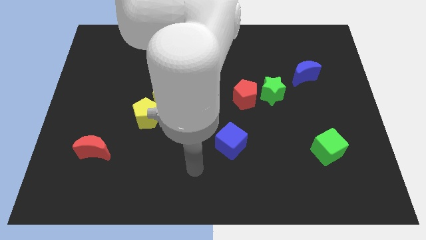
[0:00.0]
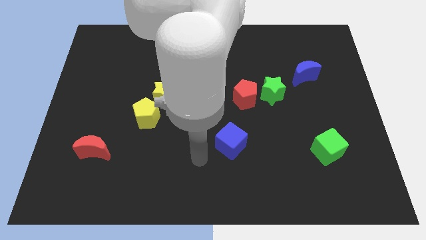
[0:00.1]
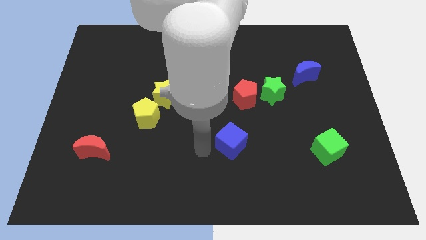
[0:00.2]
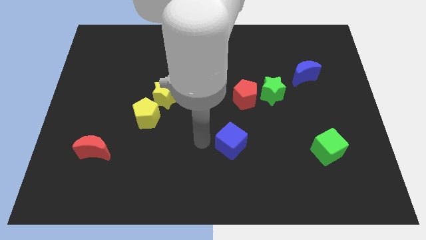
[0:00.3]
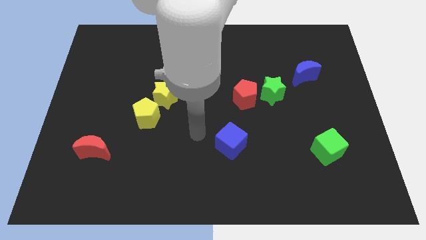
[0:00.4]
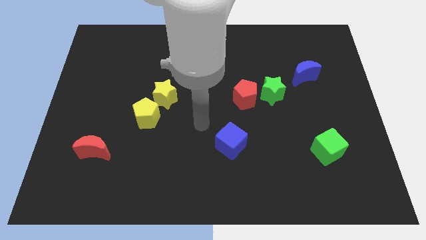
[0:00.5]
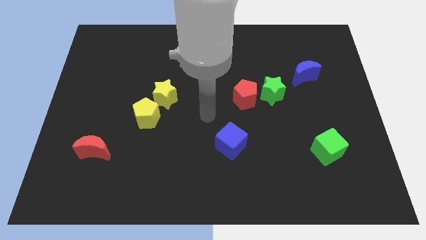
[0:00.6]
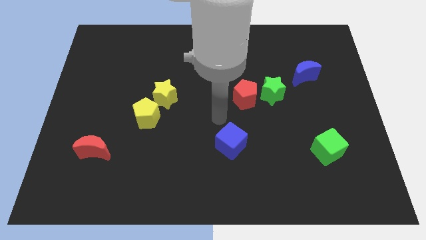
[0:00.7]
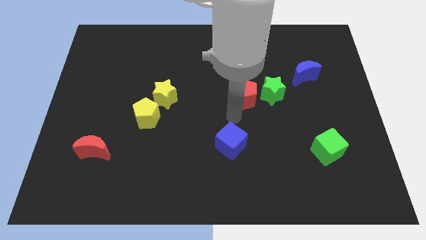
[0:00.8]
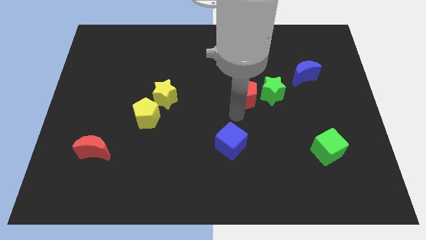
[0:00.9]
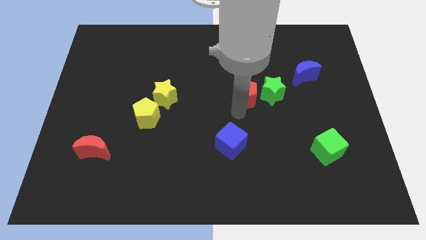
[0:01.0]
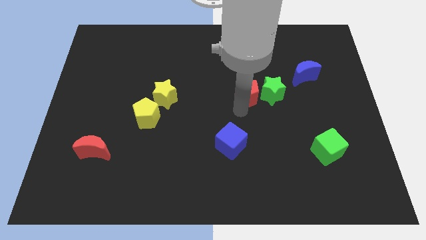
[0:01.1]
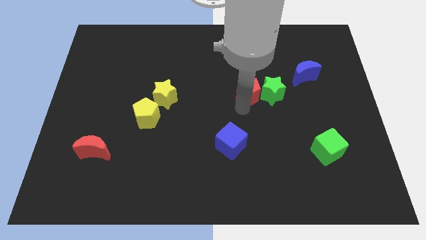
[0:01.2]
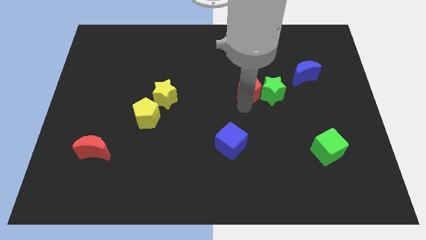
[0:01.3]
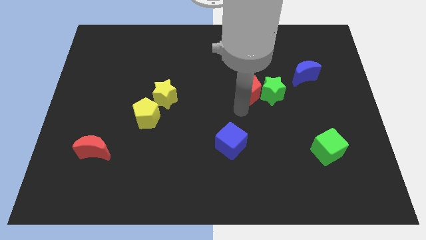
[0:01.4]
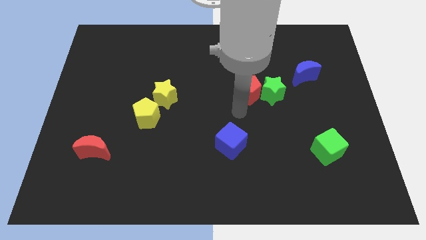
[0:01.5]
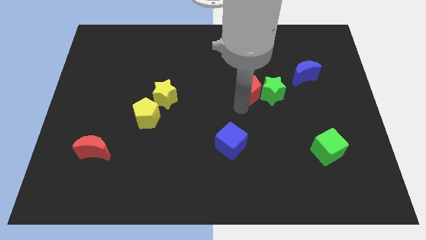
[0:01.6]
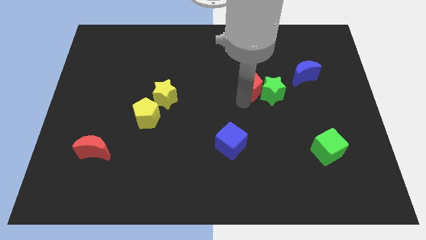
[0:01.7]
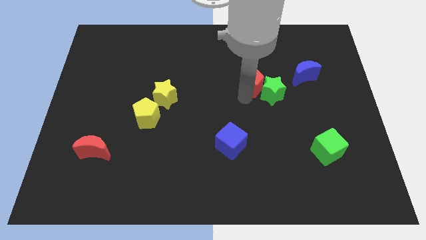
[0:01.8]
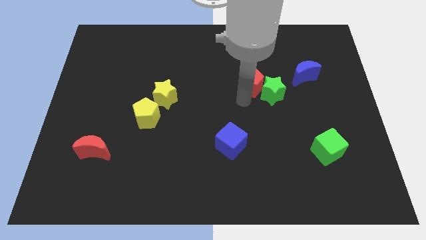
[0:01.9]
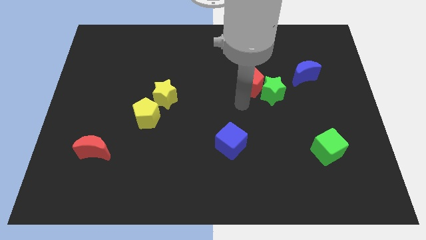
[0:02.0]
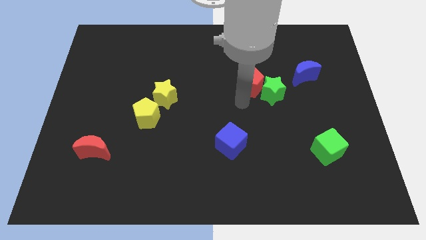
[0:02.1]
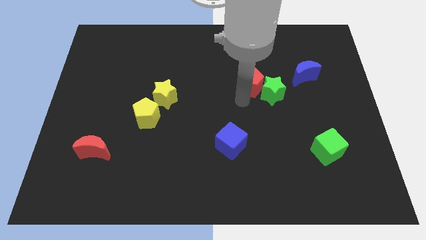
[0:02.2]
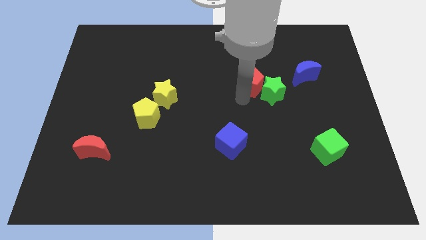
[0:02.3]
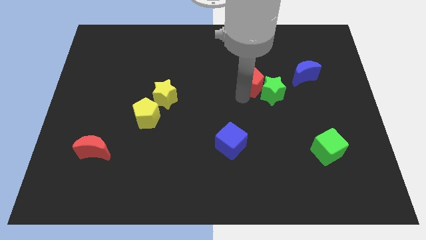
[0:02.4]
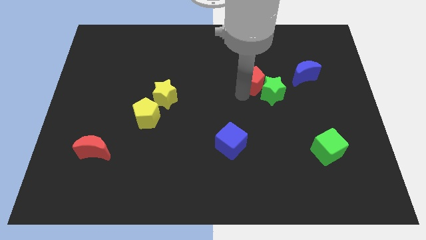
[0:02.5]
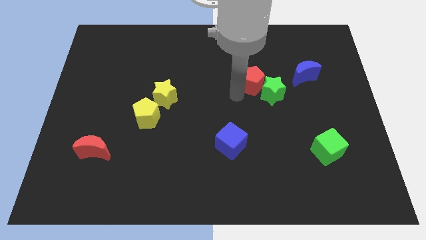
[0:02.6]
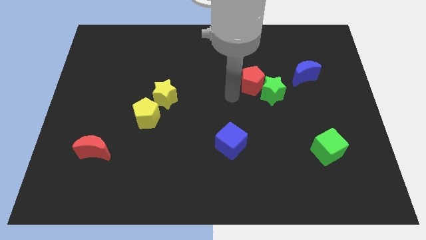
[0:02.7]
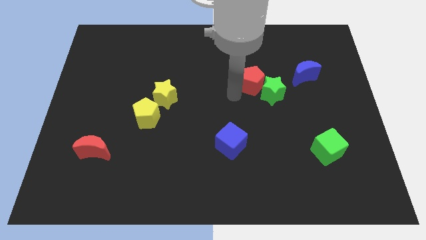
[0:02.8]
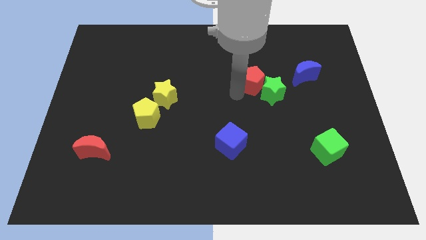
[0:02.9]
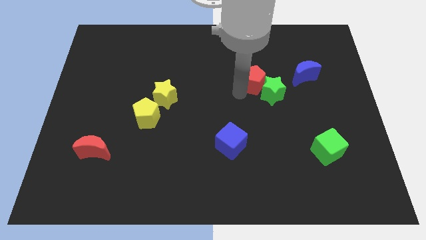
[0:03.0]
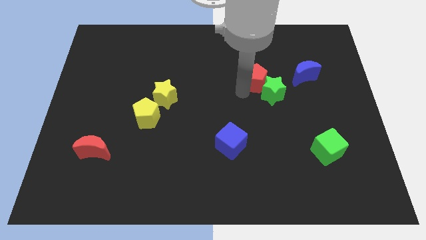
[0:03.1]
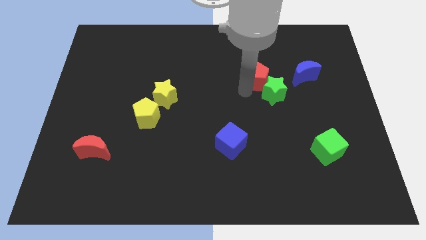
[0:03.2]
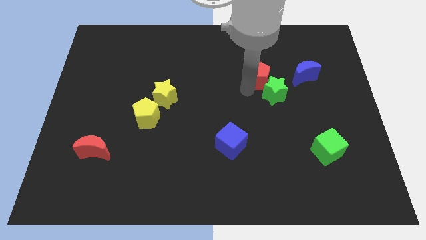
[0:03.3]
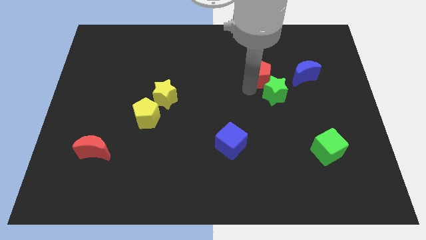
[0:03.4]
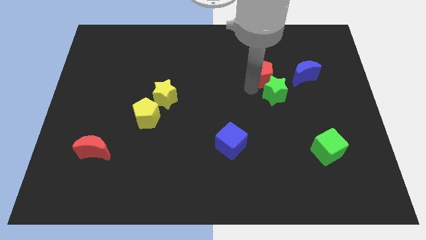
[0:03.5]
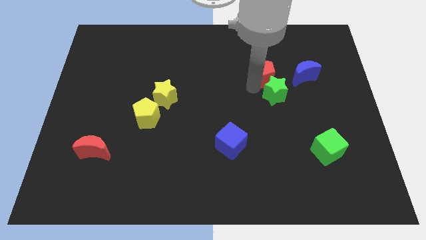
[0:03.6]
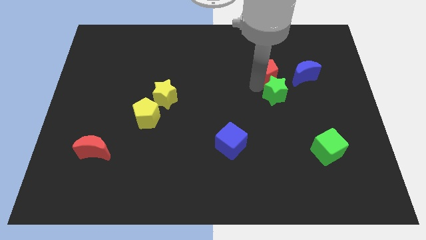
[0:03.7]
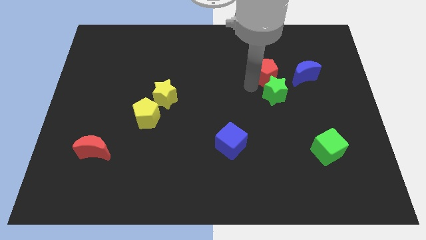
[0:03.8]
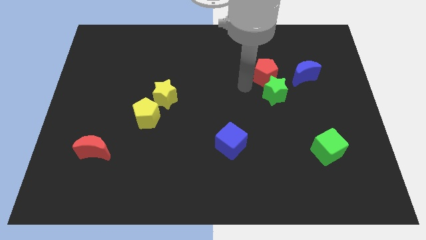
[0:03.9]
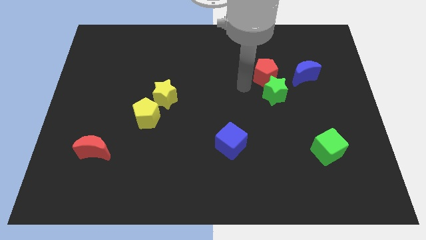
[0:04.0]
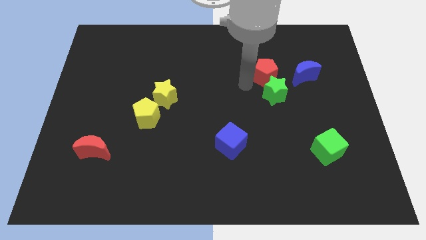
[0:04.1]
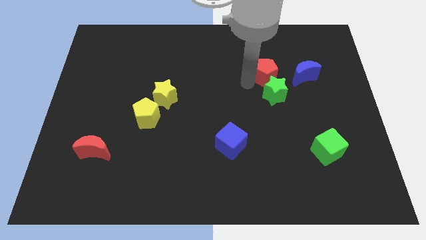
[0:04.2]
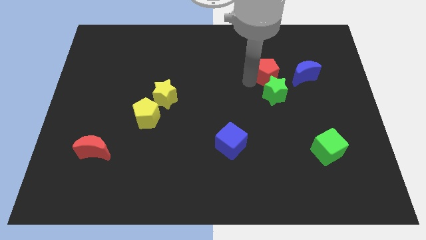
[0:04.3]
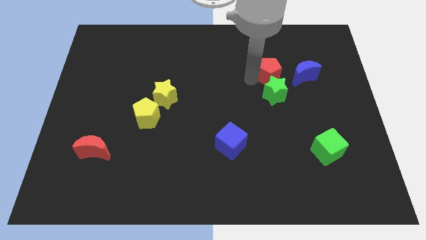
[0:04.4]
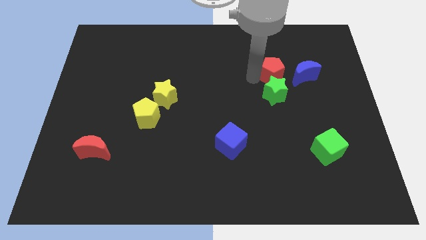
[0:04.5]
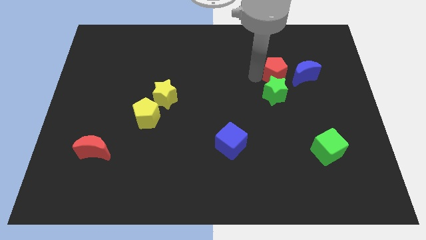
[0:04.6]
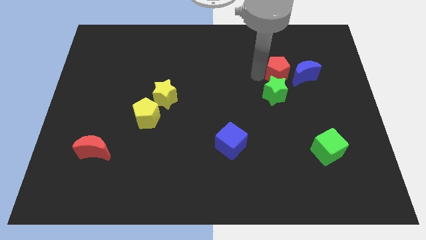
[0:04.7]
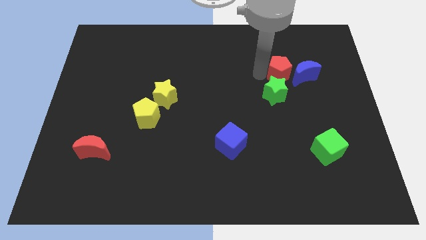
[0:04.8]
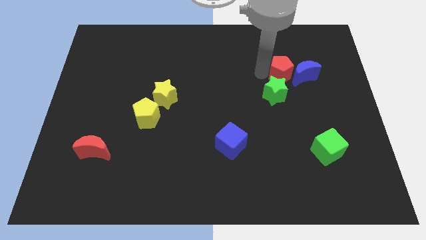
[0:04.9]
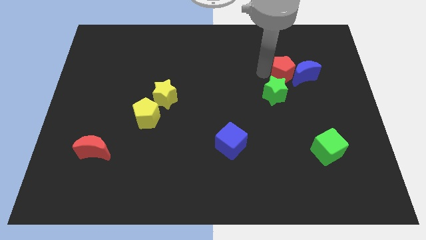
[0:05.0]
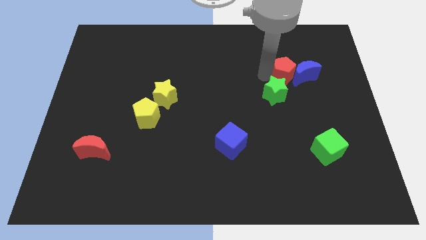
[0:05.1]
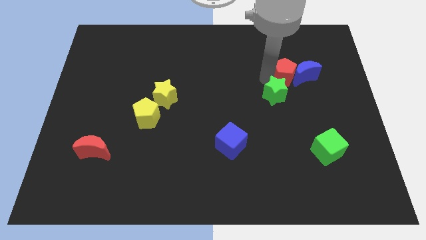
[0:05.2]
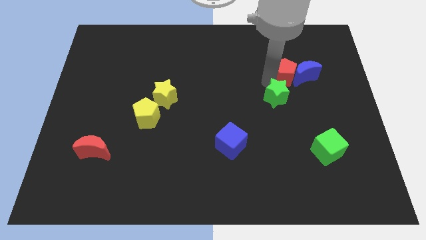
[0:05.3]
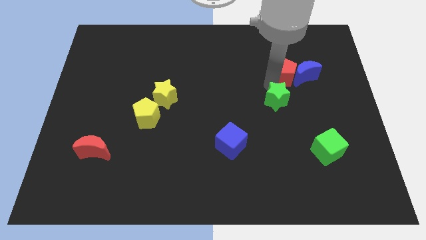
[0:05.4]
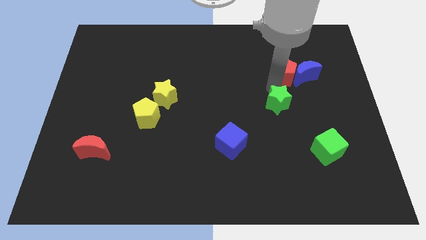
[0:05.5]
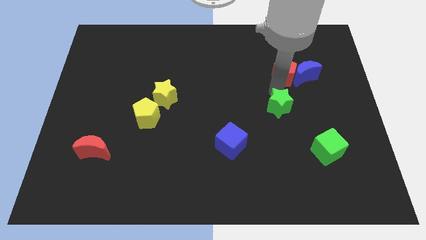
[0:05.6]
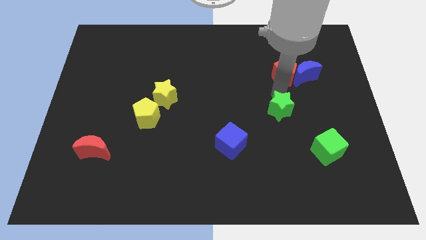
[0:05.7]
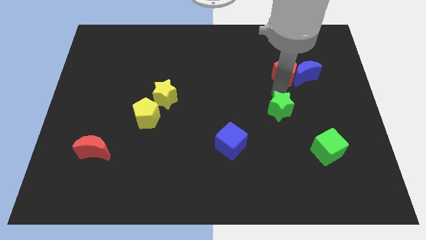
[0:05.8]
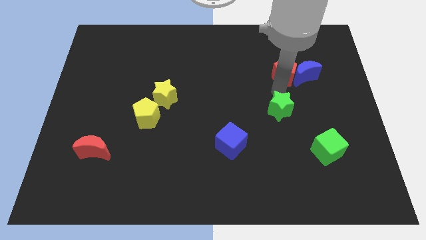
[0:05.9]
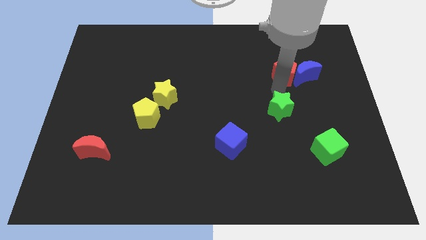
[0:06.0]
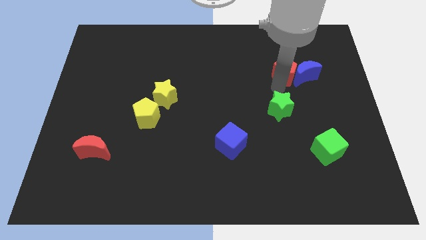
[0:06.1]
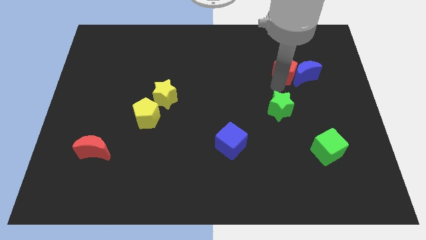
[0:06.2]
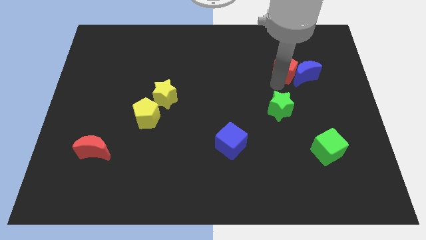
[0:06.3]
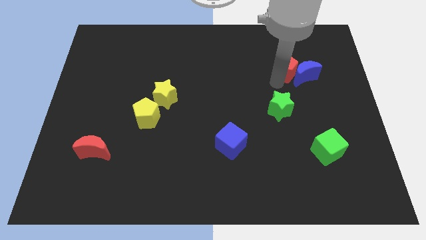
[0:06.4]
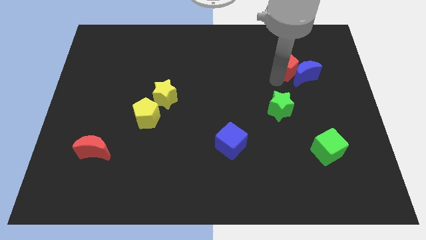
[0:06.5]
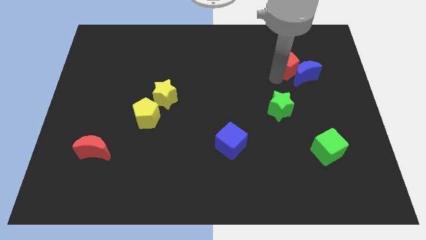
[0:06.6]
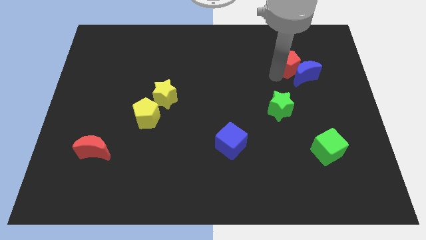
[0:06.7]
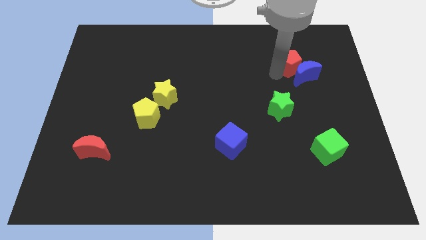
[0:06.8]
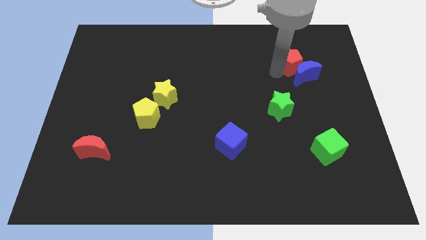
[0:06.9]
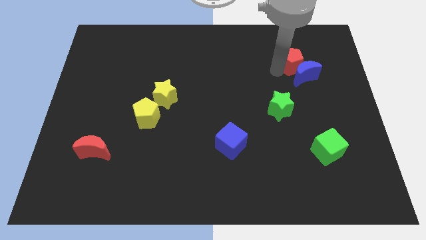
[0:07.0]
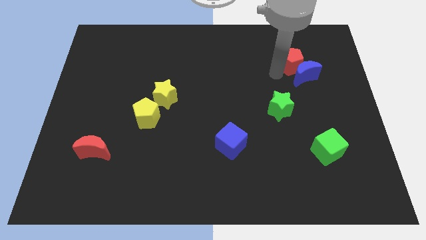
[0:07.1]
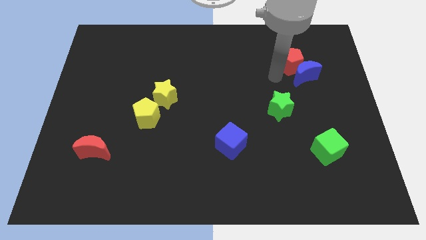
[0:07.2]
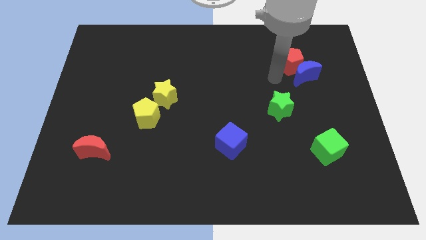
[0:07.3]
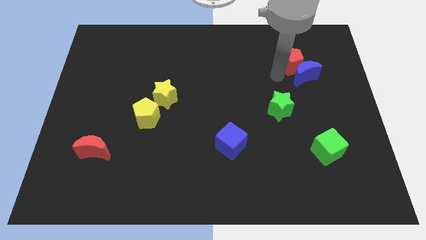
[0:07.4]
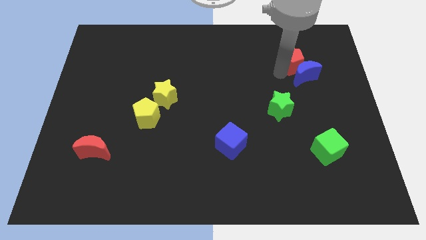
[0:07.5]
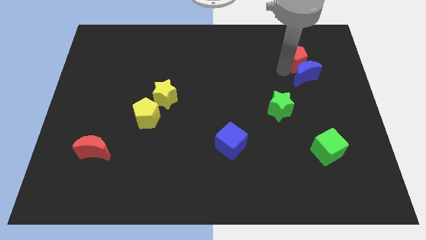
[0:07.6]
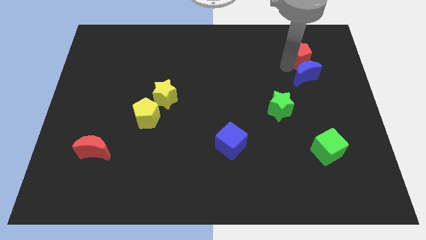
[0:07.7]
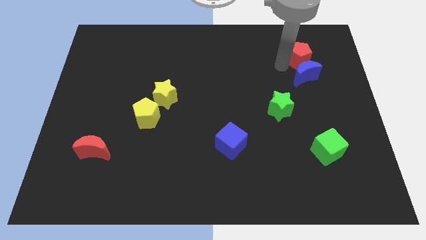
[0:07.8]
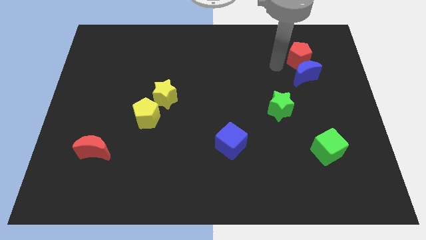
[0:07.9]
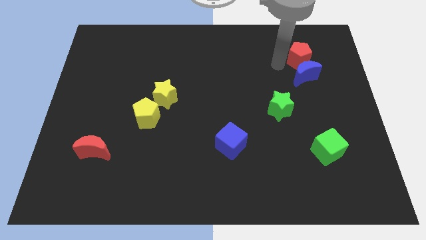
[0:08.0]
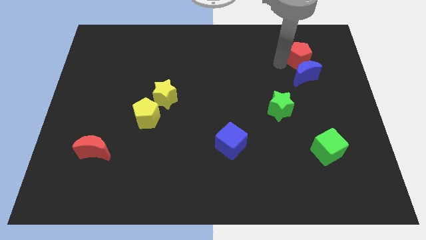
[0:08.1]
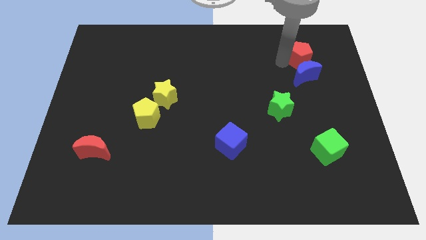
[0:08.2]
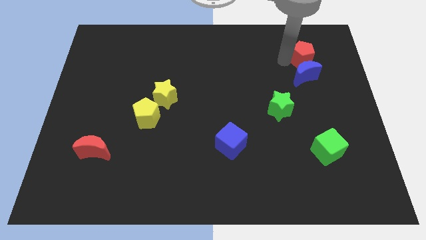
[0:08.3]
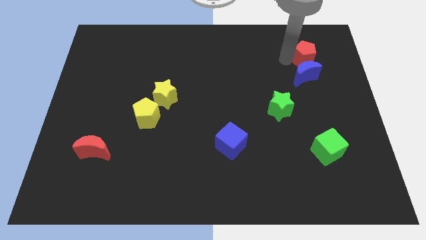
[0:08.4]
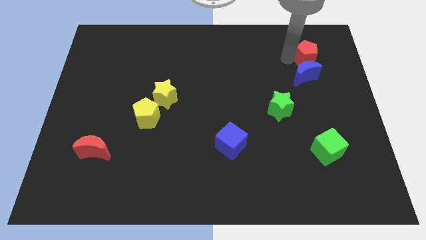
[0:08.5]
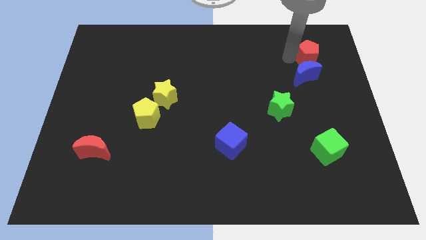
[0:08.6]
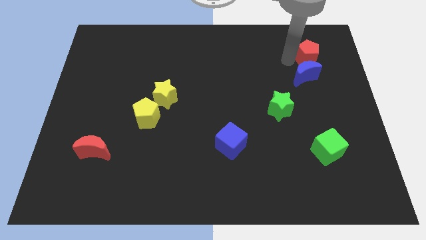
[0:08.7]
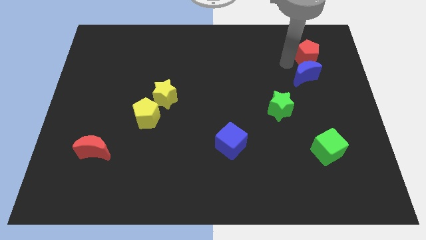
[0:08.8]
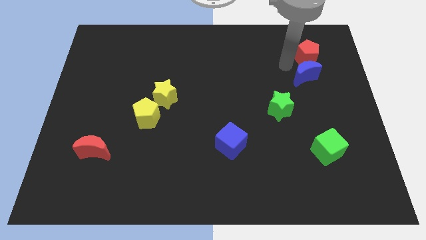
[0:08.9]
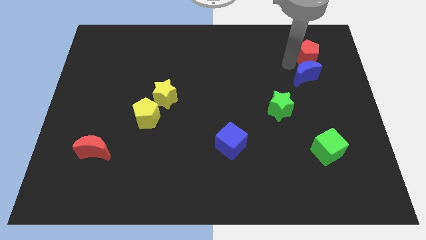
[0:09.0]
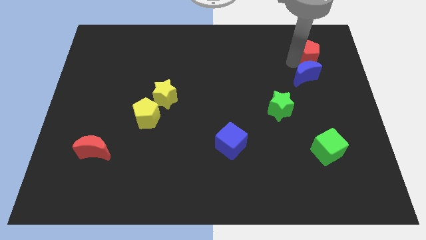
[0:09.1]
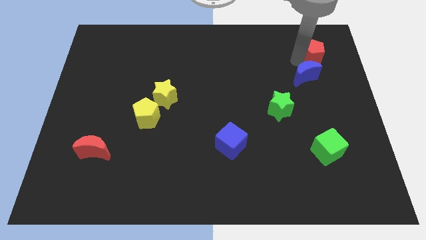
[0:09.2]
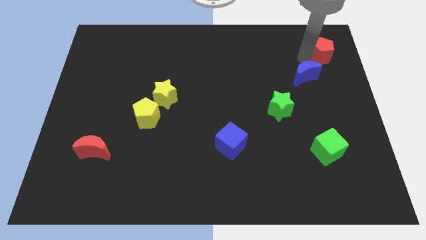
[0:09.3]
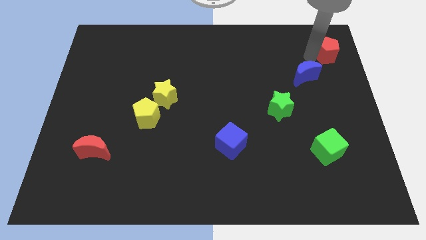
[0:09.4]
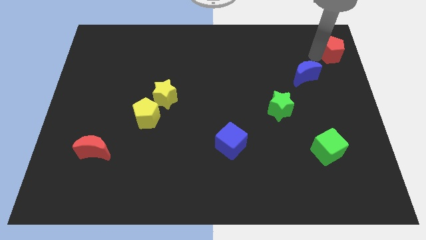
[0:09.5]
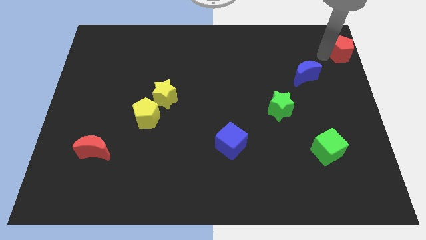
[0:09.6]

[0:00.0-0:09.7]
slide the red pentagon to the top right corner
